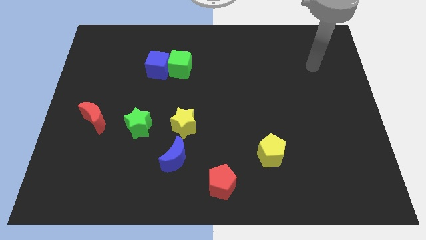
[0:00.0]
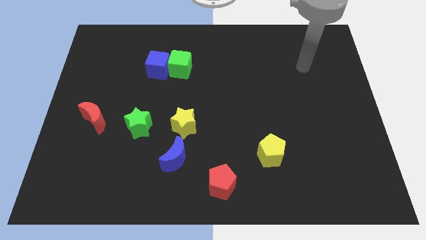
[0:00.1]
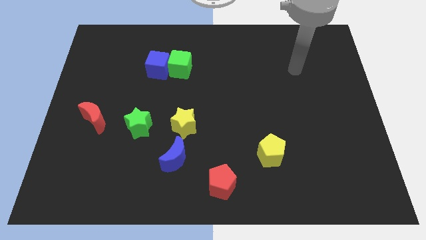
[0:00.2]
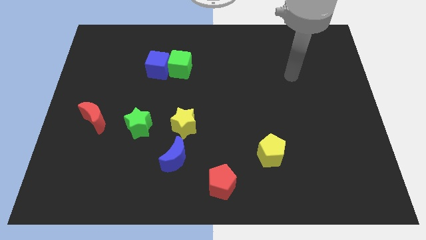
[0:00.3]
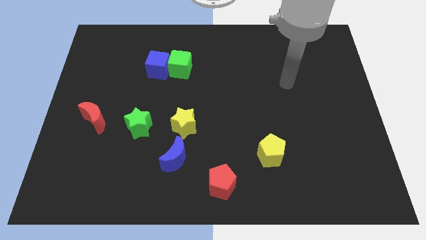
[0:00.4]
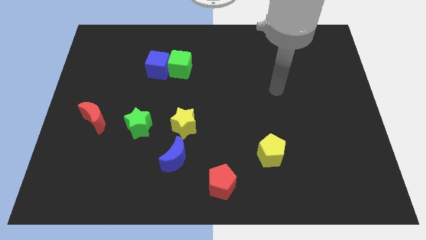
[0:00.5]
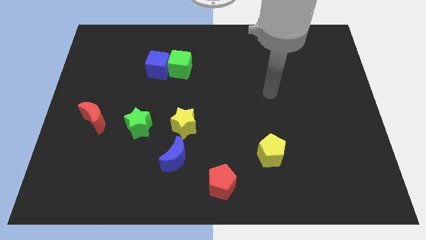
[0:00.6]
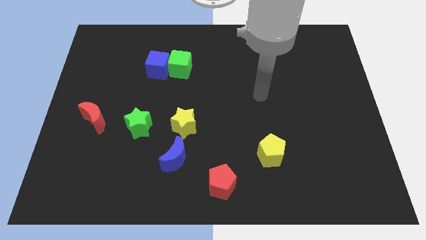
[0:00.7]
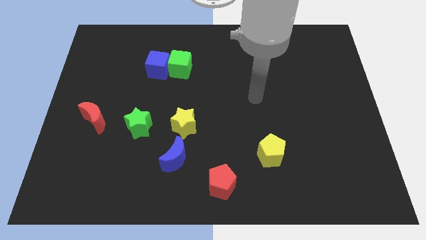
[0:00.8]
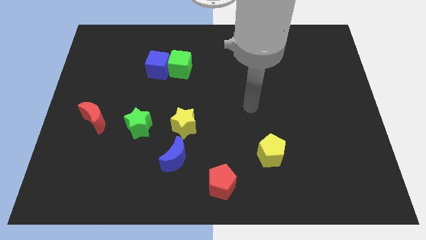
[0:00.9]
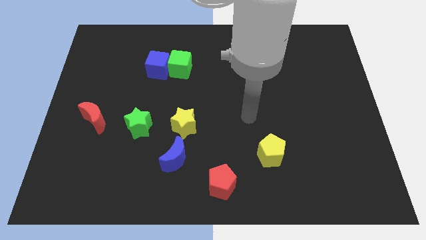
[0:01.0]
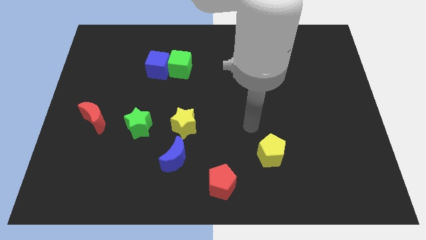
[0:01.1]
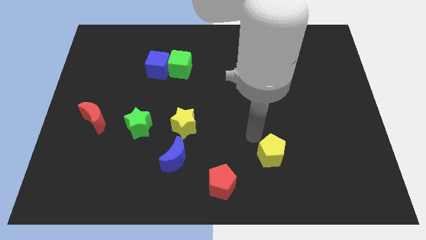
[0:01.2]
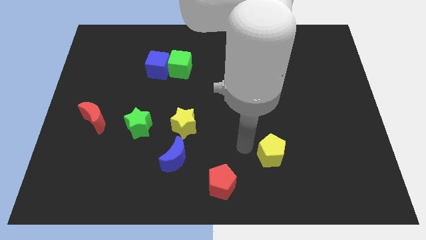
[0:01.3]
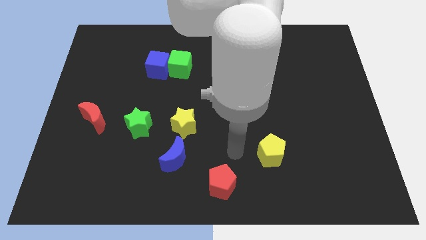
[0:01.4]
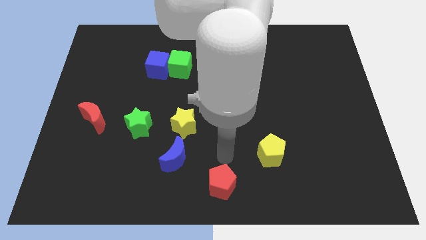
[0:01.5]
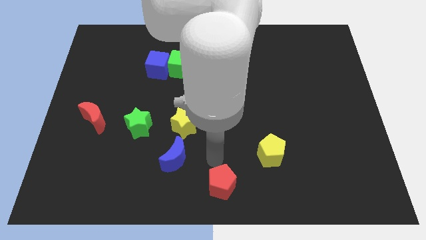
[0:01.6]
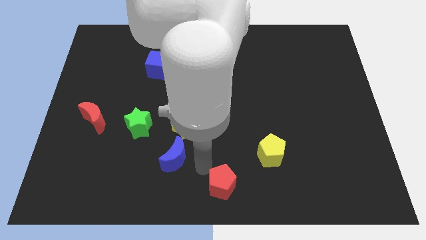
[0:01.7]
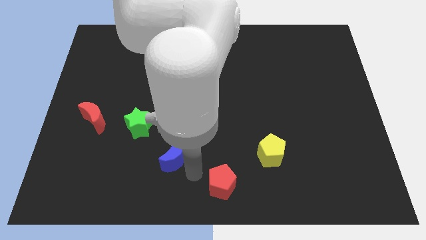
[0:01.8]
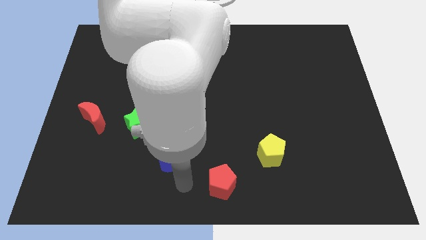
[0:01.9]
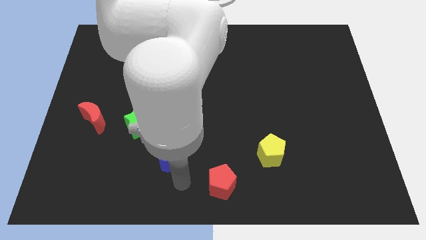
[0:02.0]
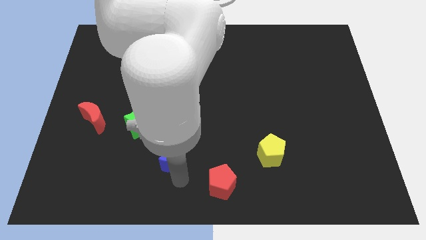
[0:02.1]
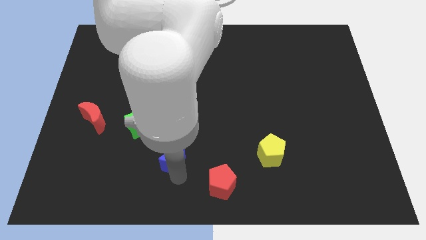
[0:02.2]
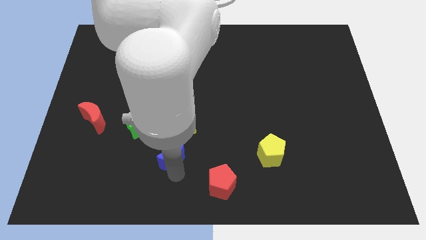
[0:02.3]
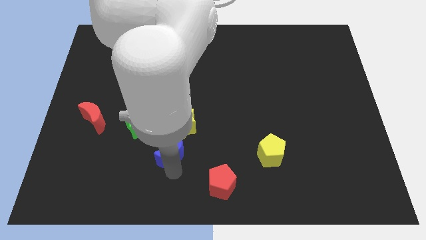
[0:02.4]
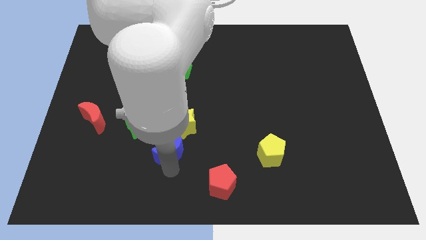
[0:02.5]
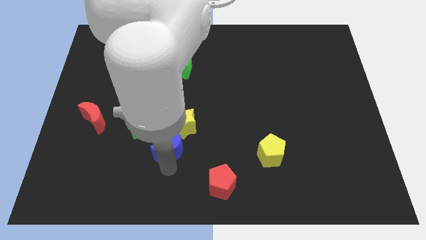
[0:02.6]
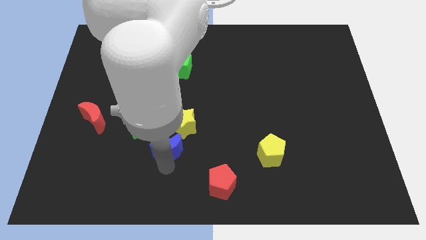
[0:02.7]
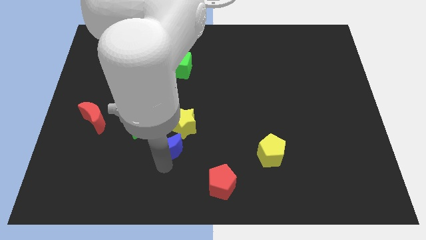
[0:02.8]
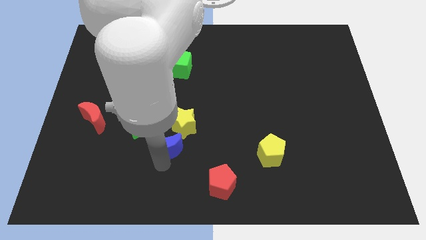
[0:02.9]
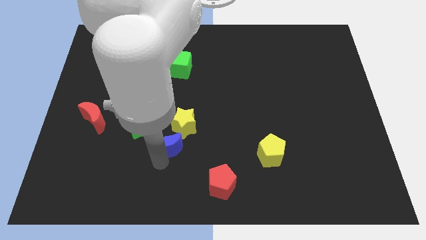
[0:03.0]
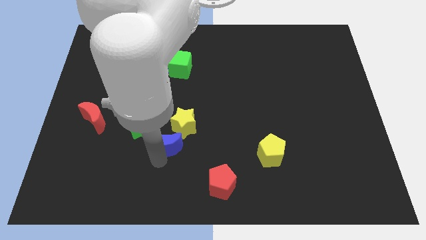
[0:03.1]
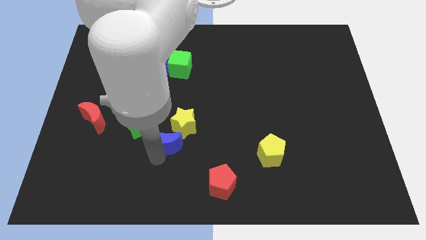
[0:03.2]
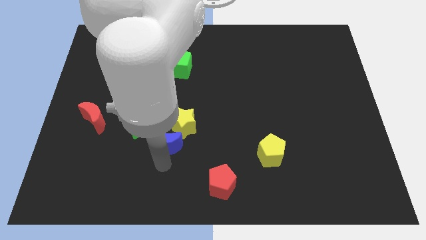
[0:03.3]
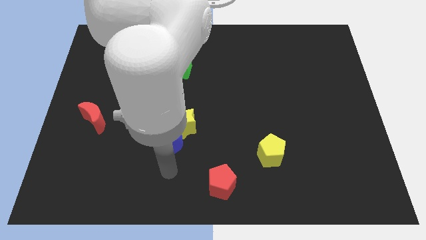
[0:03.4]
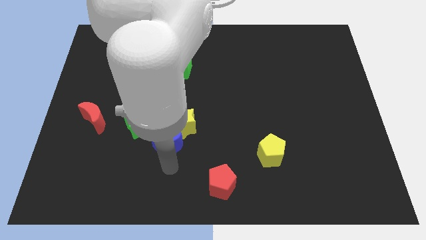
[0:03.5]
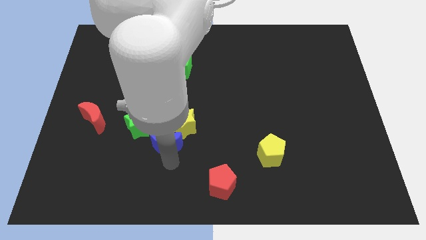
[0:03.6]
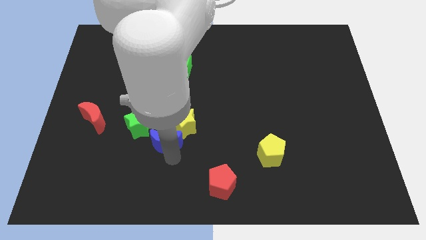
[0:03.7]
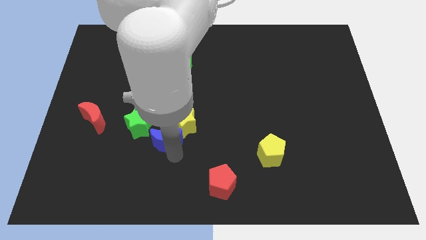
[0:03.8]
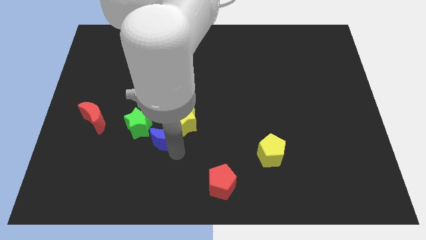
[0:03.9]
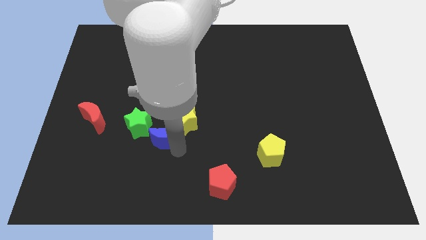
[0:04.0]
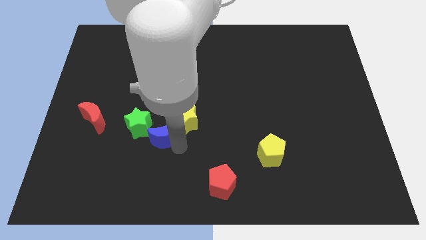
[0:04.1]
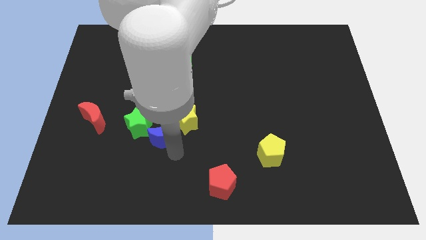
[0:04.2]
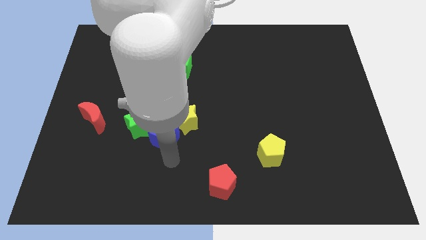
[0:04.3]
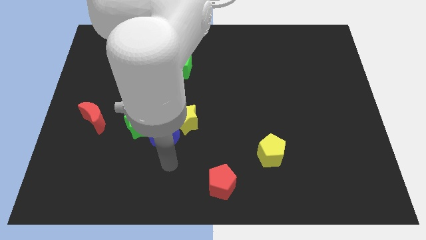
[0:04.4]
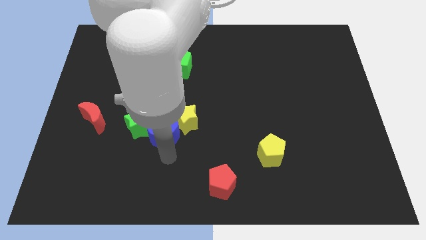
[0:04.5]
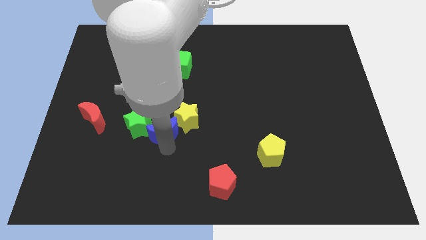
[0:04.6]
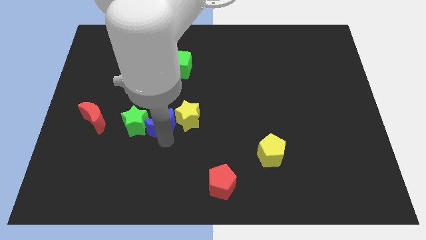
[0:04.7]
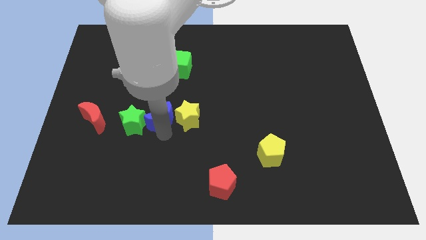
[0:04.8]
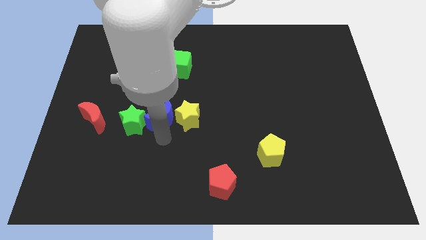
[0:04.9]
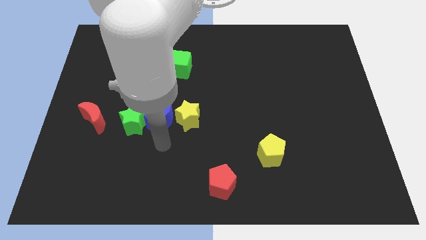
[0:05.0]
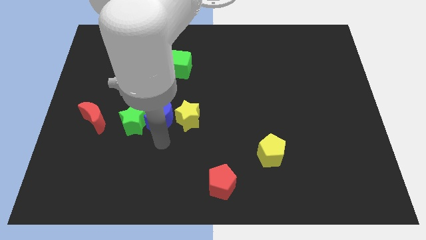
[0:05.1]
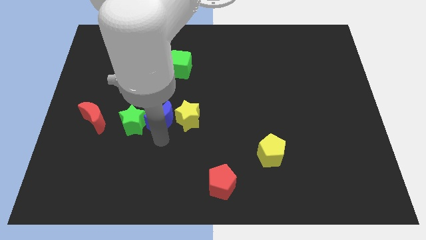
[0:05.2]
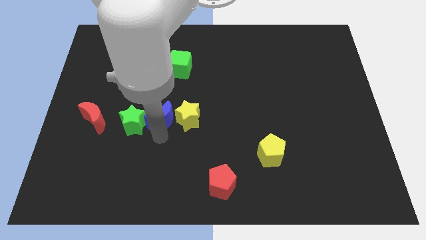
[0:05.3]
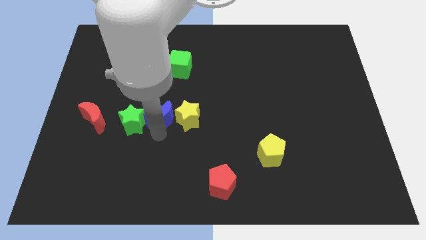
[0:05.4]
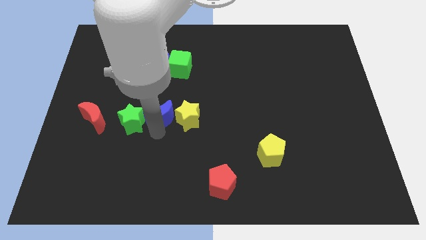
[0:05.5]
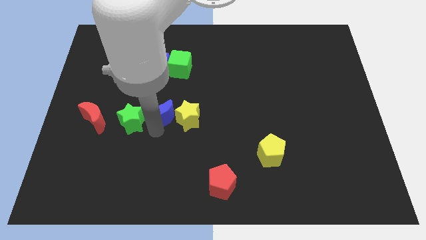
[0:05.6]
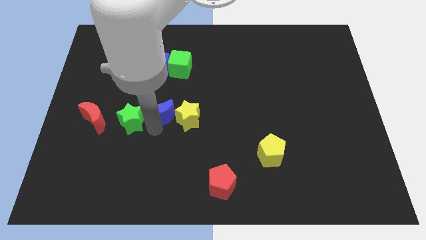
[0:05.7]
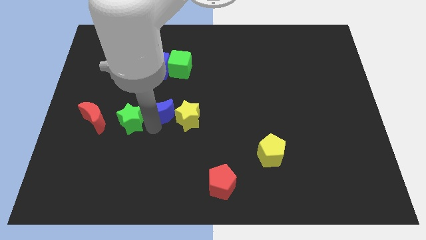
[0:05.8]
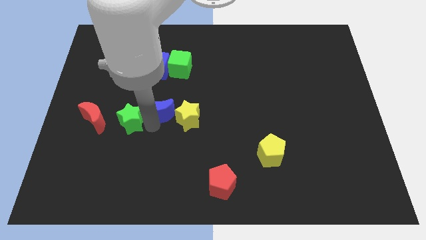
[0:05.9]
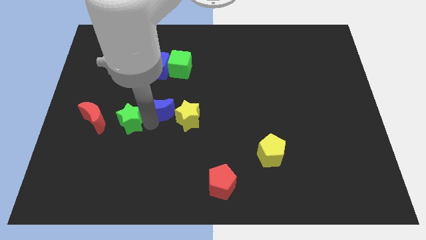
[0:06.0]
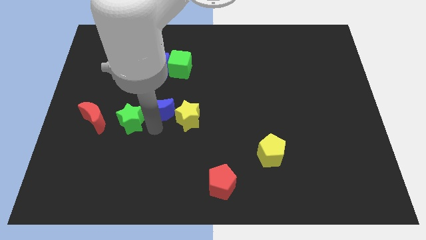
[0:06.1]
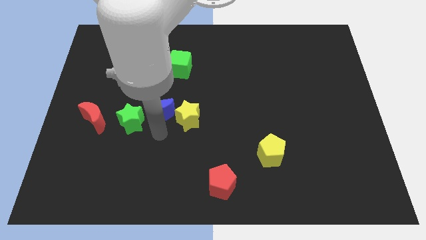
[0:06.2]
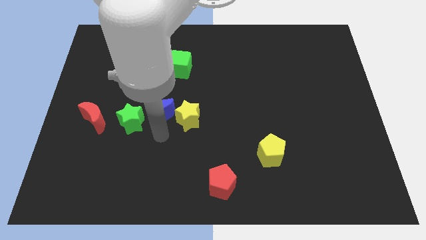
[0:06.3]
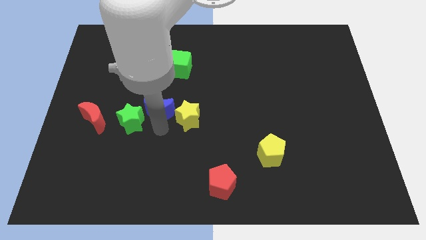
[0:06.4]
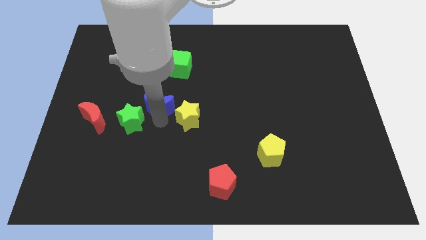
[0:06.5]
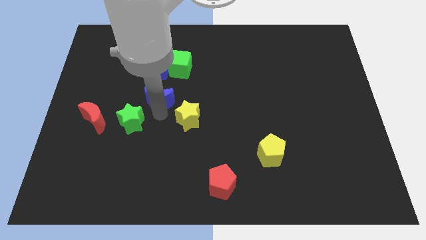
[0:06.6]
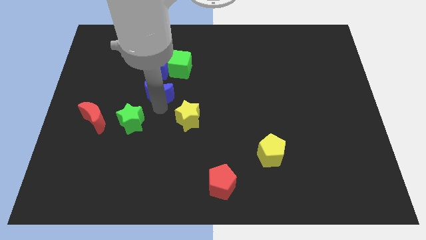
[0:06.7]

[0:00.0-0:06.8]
put the blue moon to the bottom left side of the green cube
